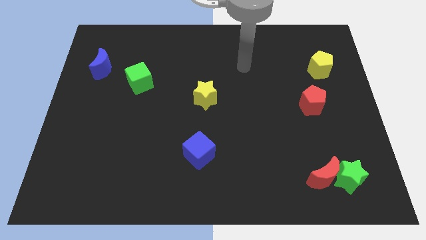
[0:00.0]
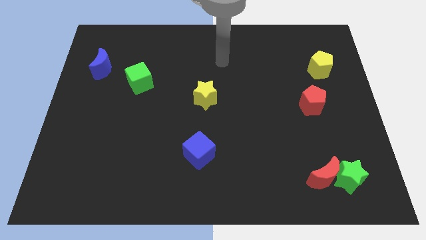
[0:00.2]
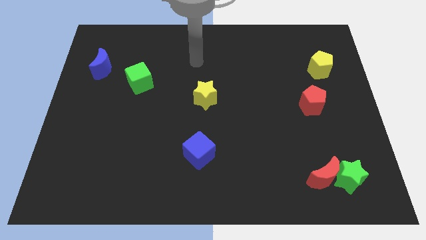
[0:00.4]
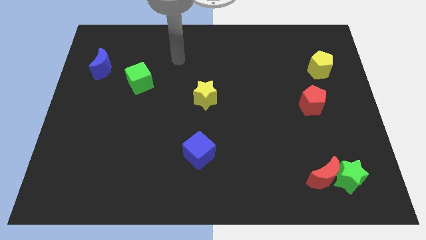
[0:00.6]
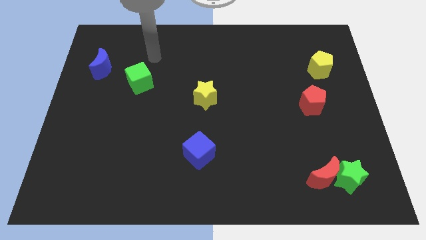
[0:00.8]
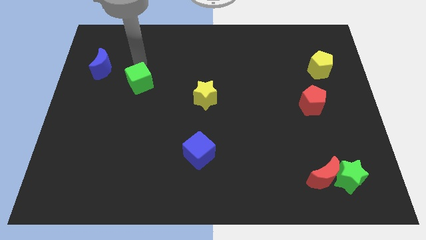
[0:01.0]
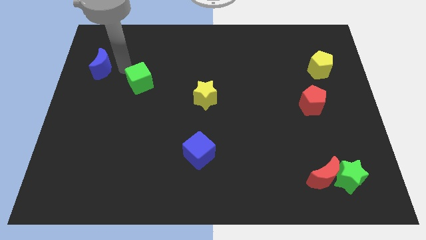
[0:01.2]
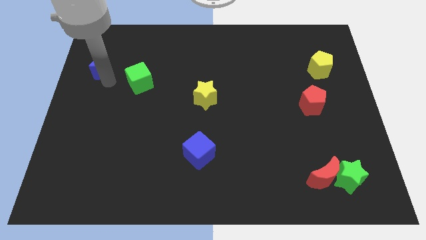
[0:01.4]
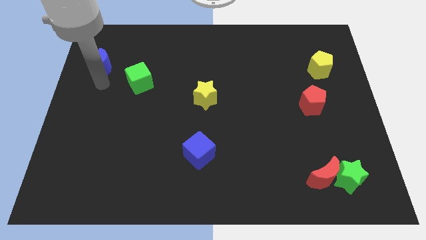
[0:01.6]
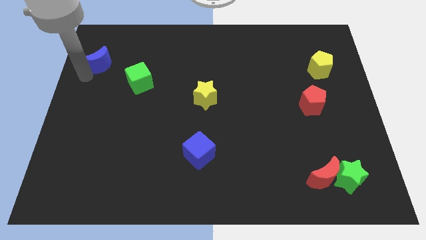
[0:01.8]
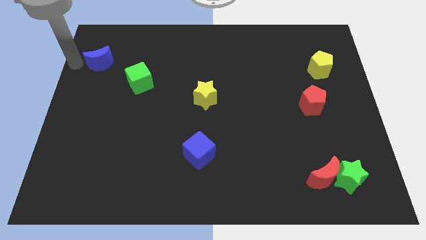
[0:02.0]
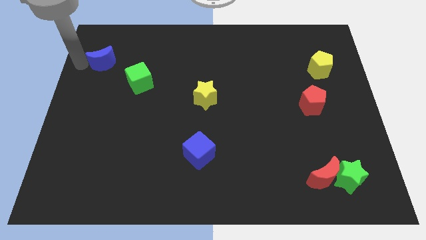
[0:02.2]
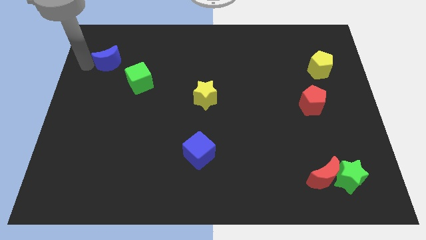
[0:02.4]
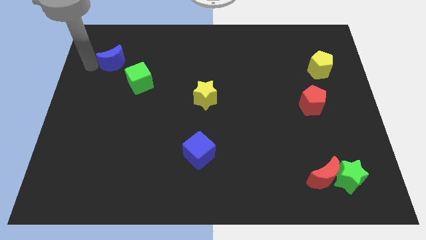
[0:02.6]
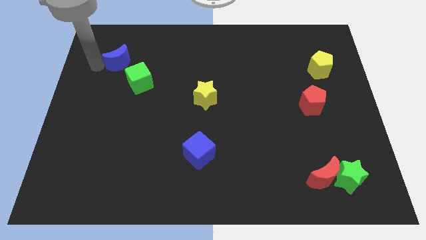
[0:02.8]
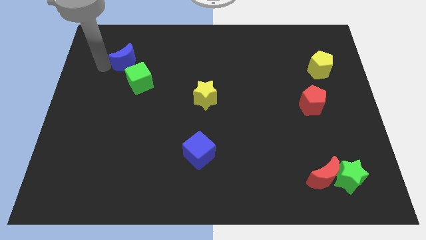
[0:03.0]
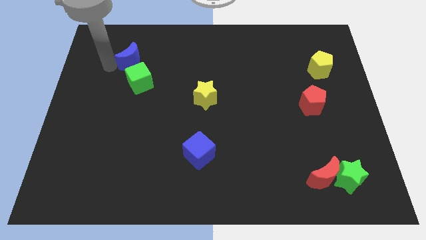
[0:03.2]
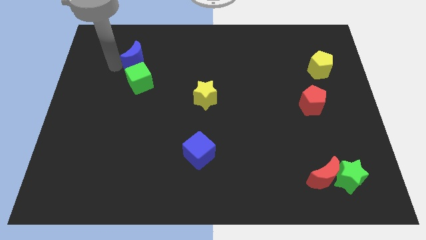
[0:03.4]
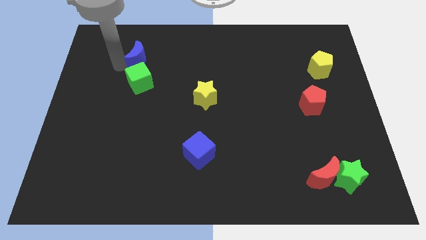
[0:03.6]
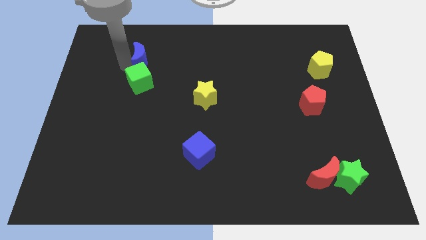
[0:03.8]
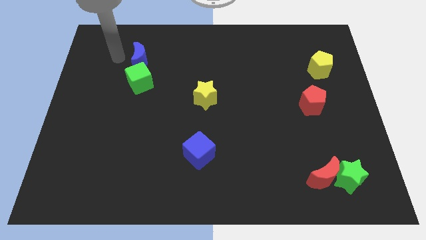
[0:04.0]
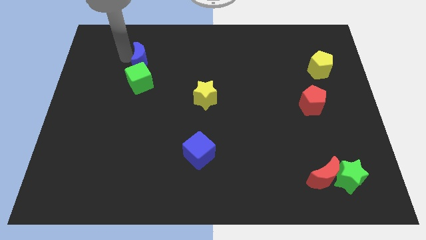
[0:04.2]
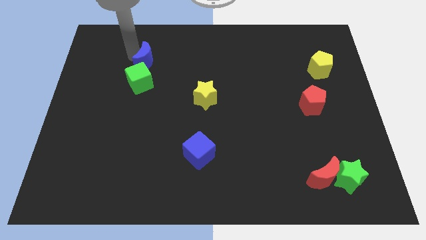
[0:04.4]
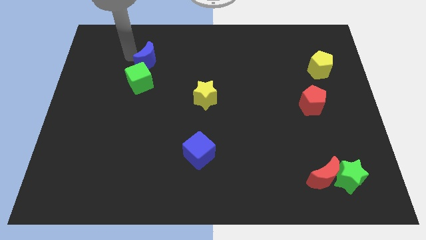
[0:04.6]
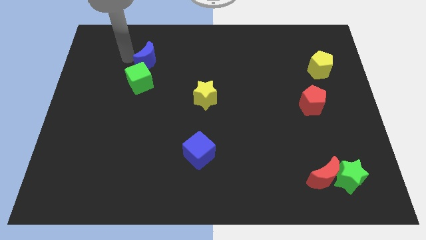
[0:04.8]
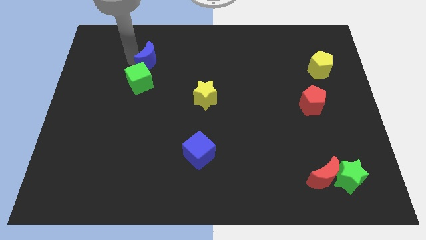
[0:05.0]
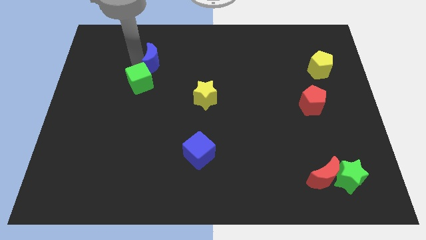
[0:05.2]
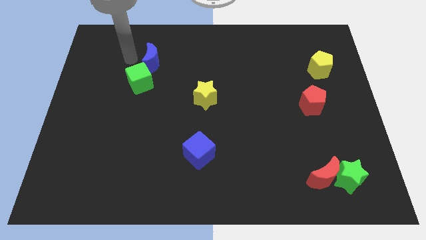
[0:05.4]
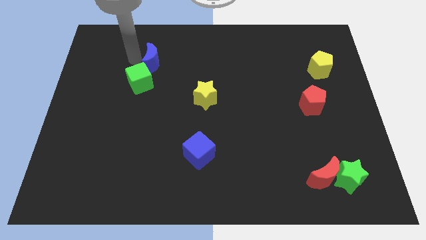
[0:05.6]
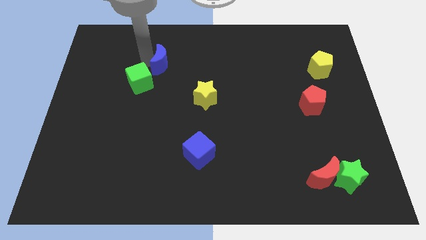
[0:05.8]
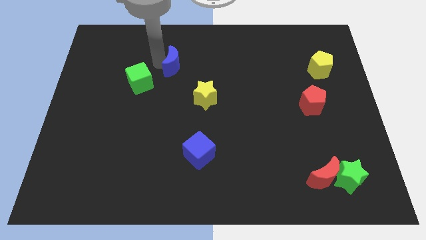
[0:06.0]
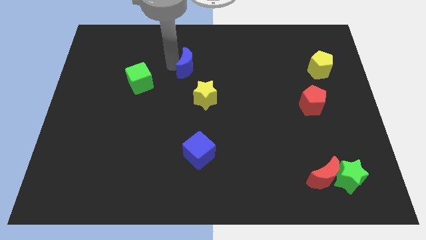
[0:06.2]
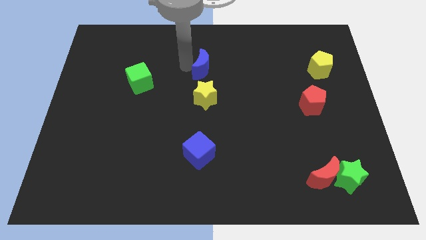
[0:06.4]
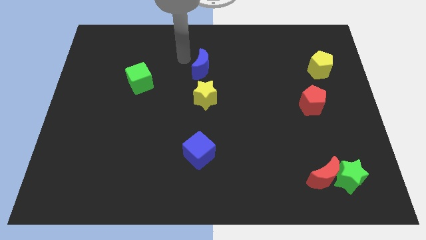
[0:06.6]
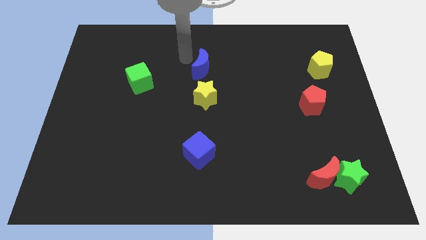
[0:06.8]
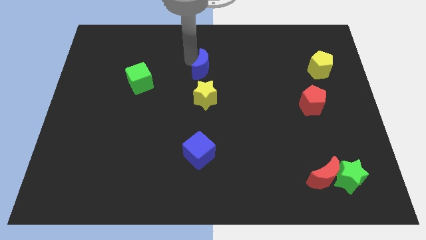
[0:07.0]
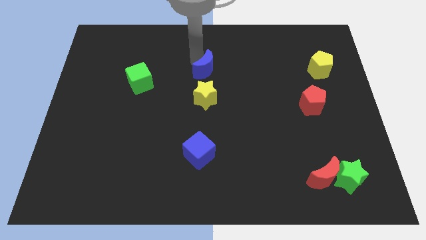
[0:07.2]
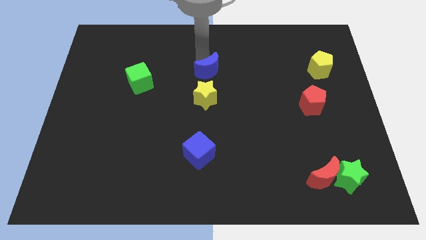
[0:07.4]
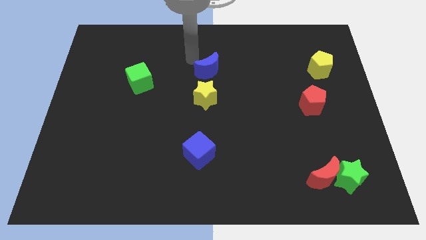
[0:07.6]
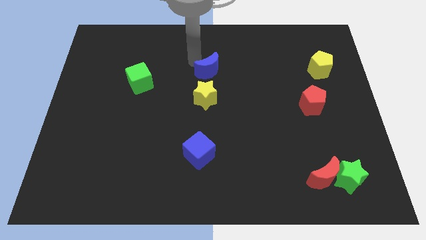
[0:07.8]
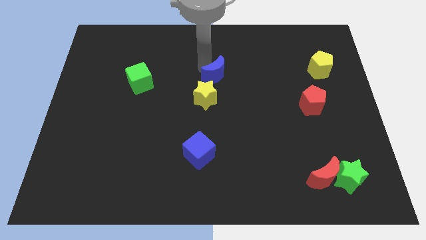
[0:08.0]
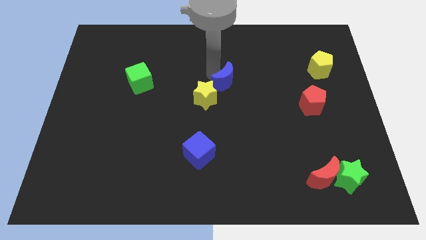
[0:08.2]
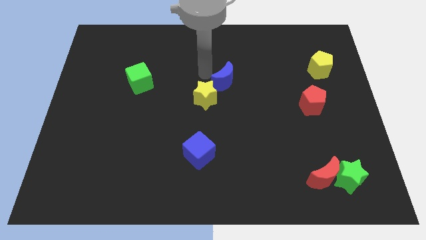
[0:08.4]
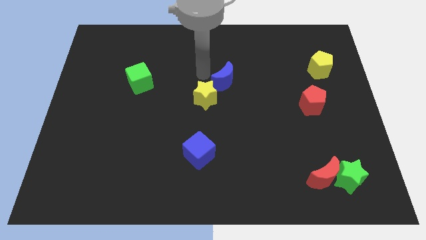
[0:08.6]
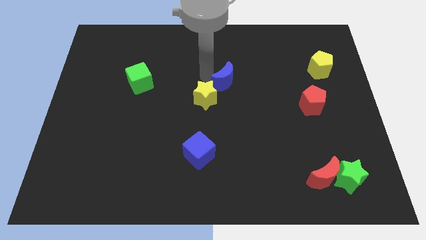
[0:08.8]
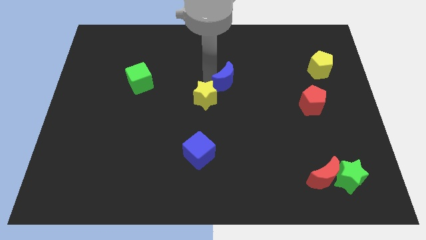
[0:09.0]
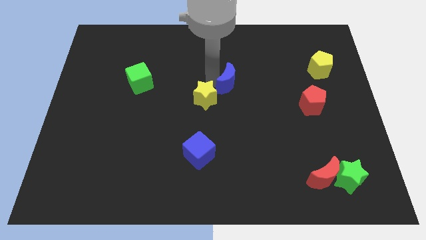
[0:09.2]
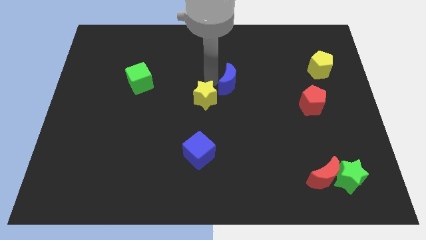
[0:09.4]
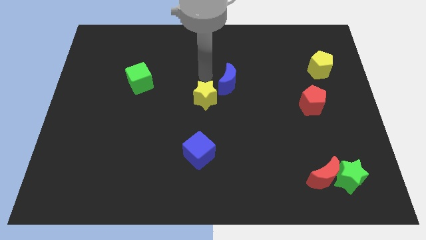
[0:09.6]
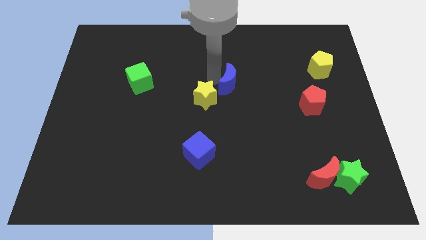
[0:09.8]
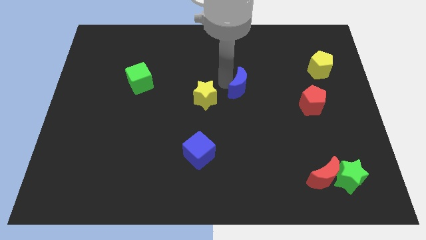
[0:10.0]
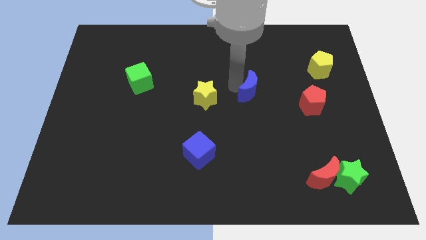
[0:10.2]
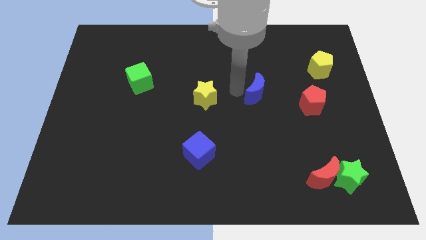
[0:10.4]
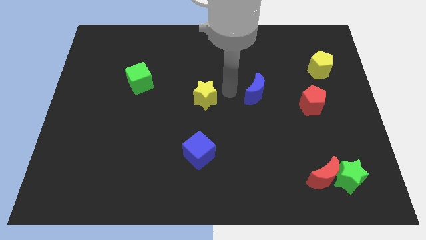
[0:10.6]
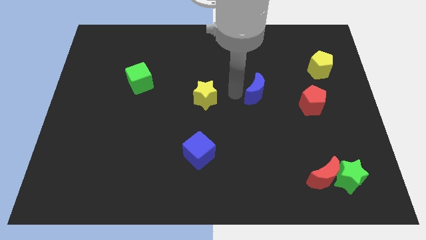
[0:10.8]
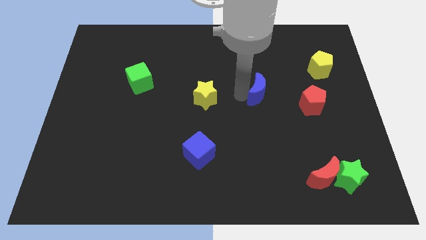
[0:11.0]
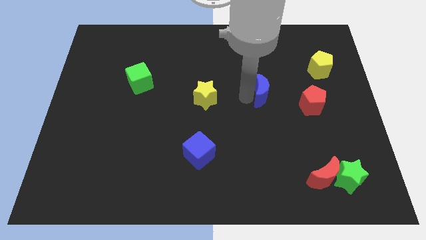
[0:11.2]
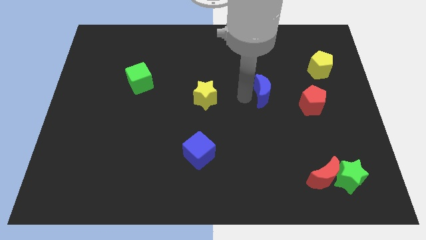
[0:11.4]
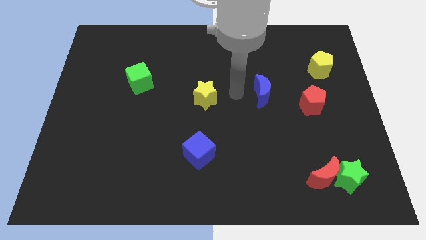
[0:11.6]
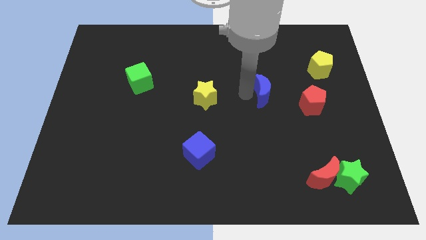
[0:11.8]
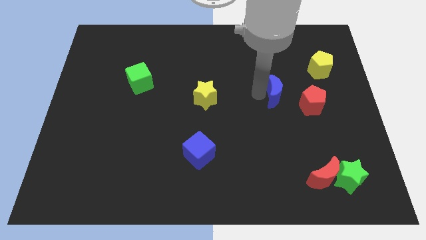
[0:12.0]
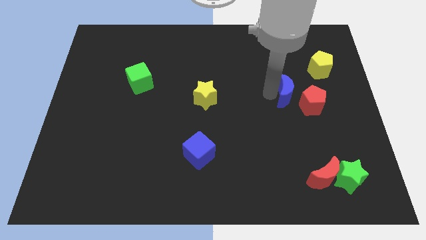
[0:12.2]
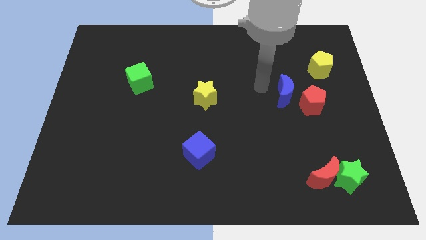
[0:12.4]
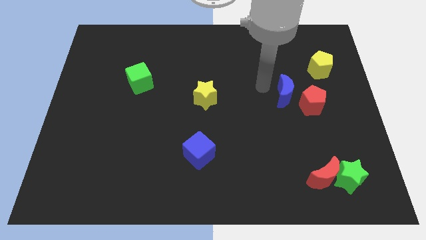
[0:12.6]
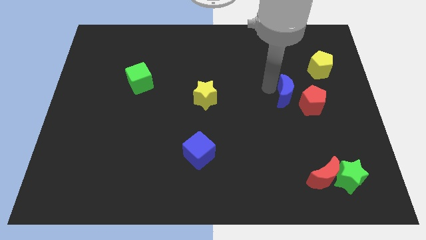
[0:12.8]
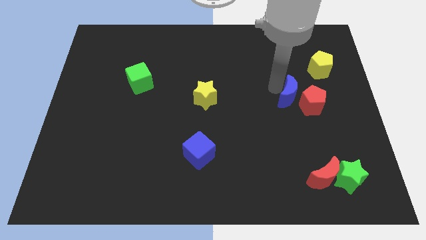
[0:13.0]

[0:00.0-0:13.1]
put the blue moon close to the red pentagon

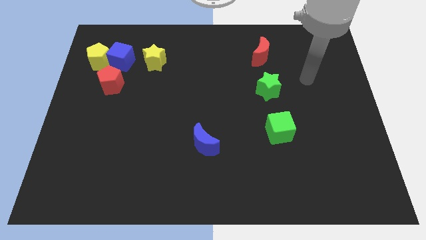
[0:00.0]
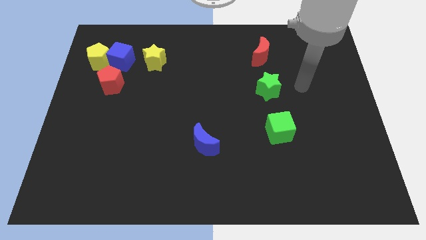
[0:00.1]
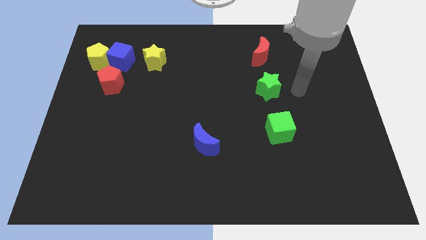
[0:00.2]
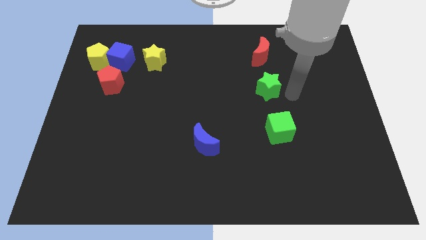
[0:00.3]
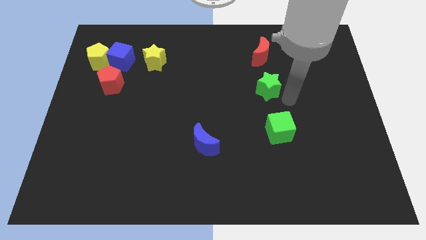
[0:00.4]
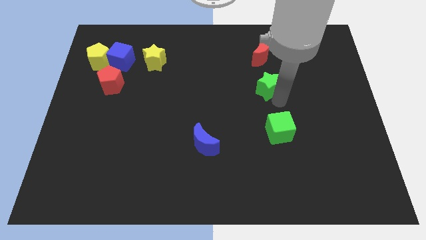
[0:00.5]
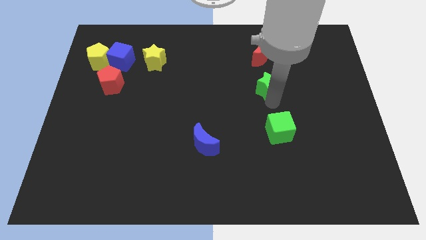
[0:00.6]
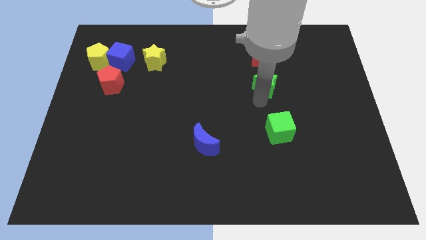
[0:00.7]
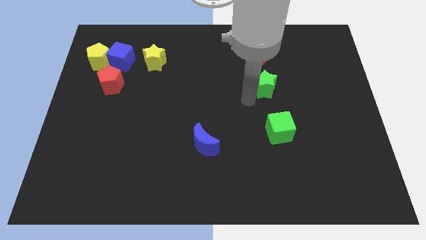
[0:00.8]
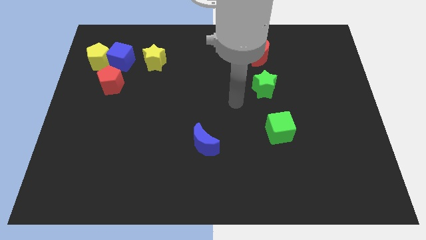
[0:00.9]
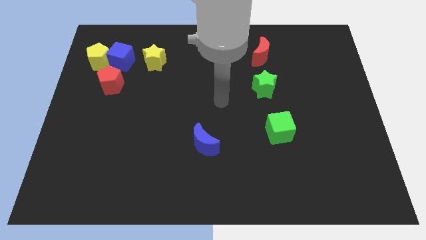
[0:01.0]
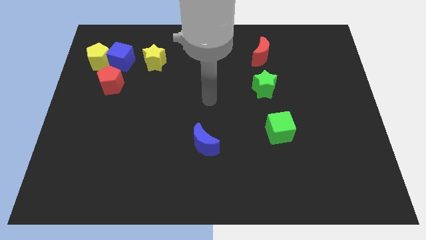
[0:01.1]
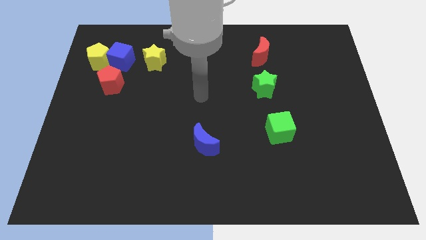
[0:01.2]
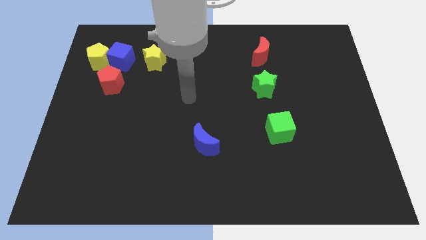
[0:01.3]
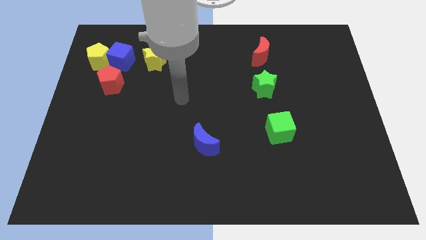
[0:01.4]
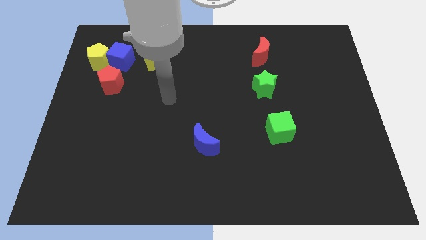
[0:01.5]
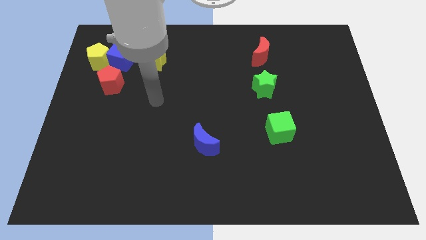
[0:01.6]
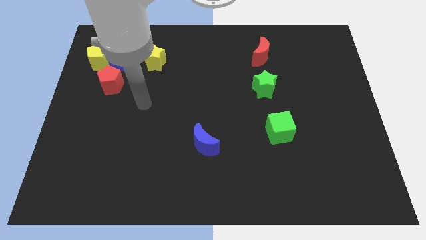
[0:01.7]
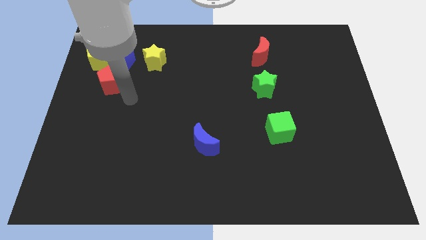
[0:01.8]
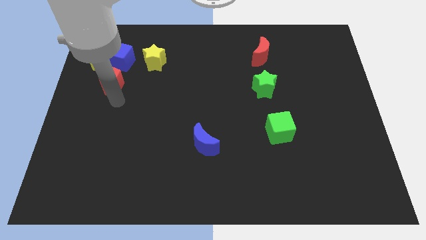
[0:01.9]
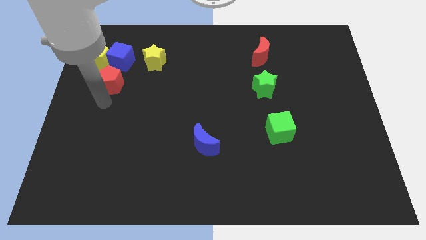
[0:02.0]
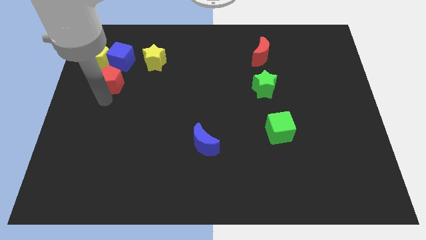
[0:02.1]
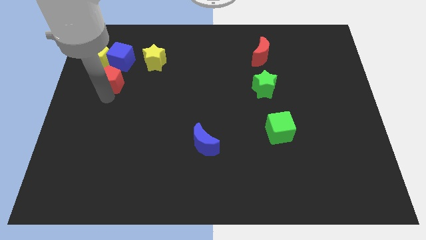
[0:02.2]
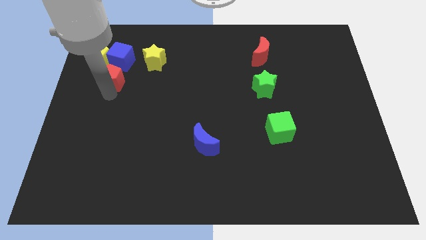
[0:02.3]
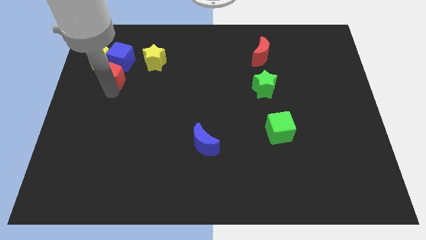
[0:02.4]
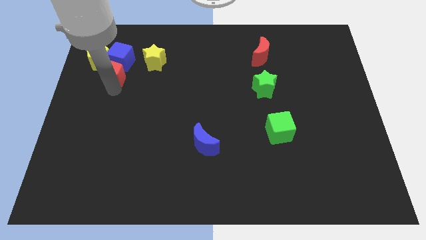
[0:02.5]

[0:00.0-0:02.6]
put the red pentagon to the blue cube
